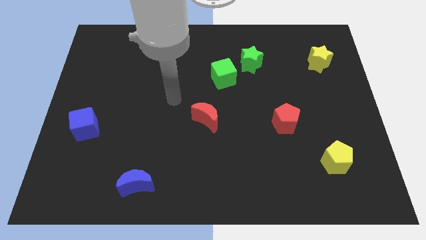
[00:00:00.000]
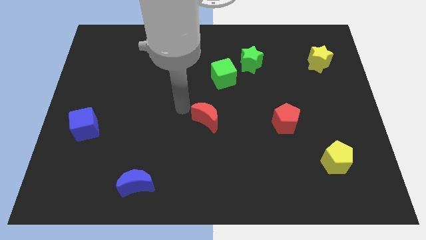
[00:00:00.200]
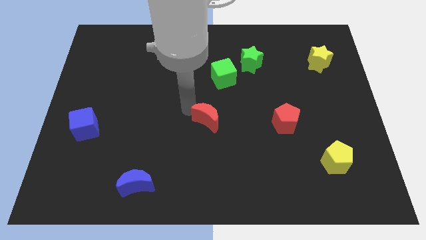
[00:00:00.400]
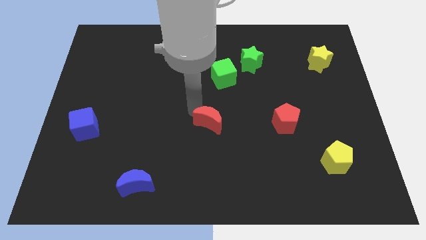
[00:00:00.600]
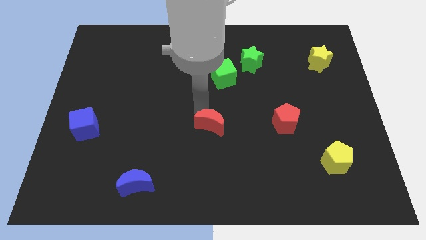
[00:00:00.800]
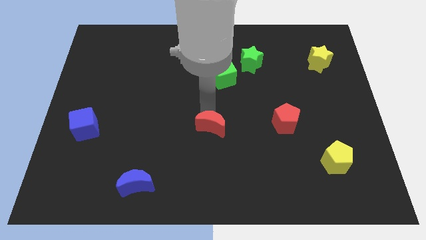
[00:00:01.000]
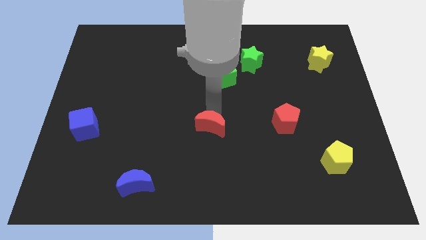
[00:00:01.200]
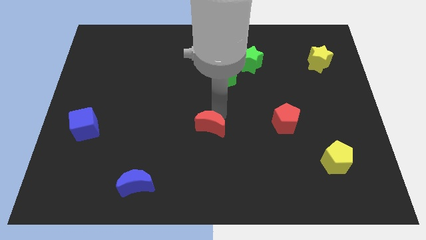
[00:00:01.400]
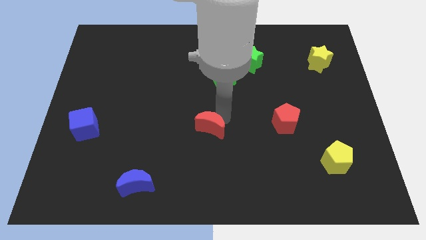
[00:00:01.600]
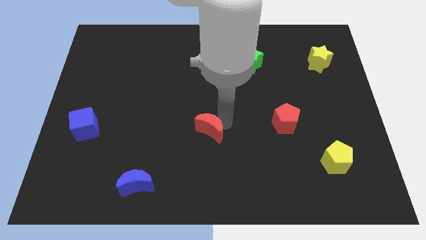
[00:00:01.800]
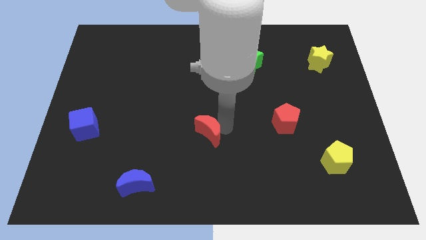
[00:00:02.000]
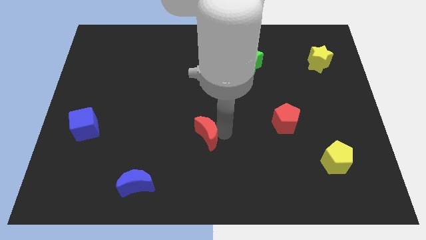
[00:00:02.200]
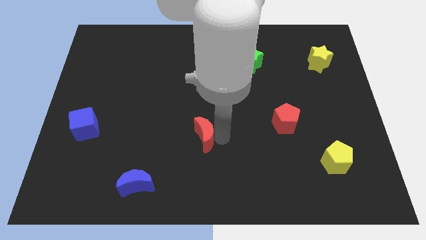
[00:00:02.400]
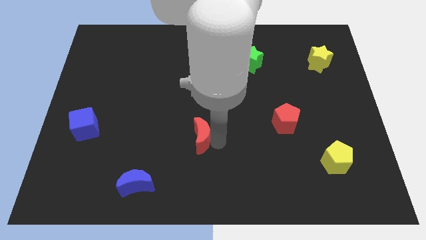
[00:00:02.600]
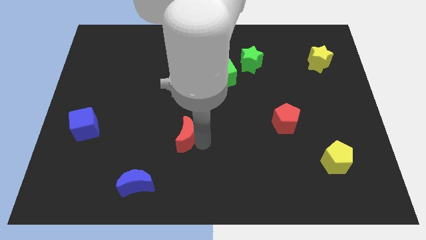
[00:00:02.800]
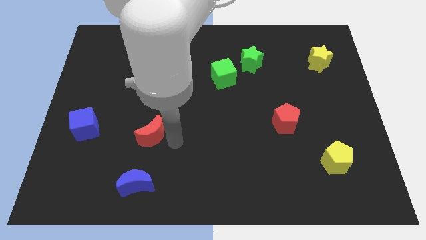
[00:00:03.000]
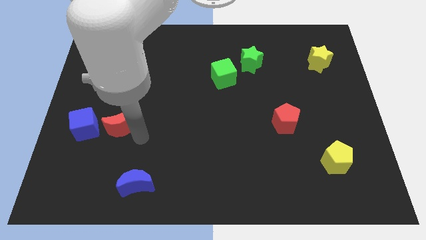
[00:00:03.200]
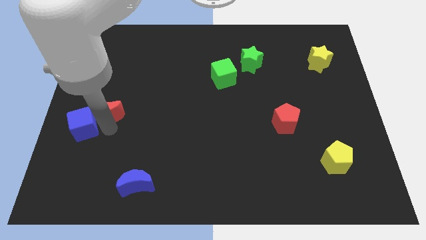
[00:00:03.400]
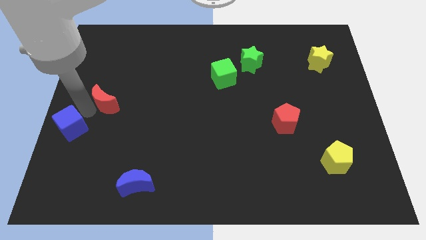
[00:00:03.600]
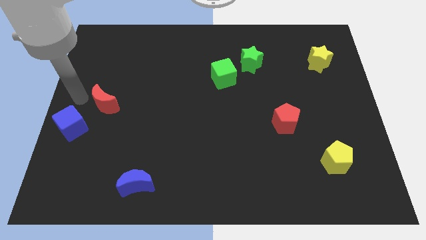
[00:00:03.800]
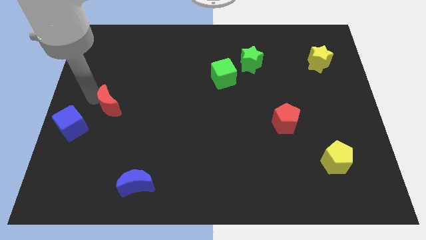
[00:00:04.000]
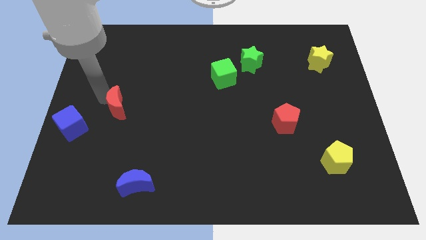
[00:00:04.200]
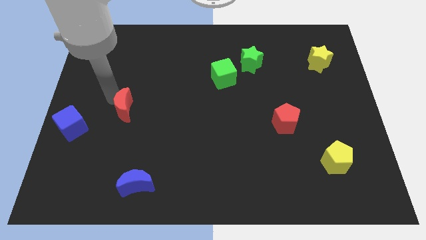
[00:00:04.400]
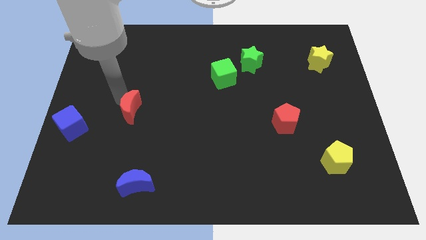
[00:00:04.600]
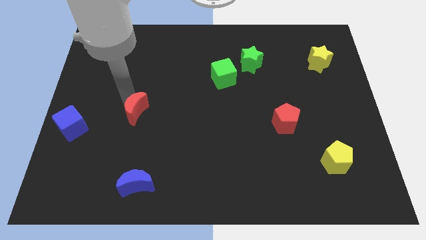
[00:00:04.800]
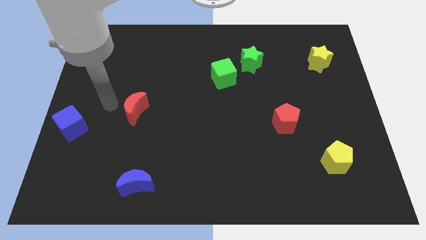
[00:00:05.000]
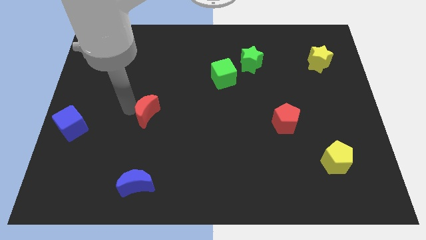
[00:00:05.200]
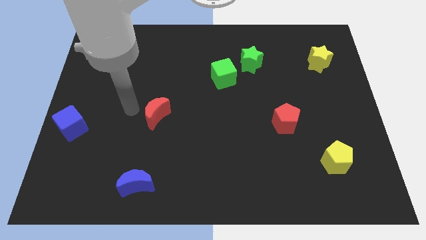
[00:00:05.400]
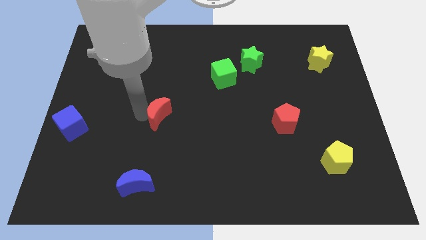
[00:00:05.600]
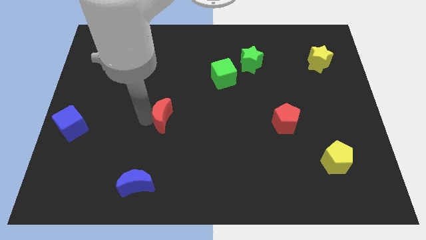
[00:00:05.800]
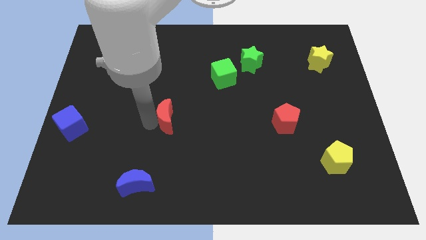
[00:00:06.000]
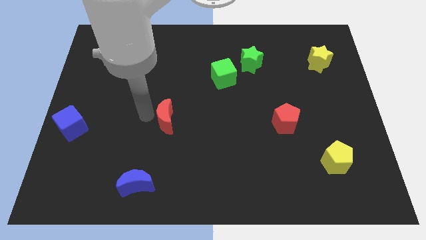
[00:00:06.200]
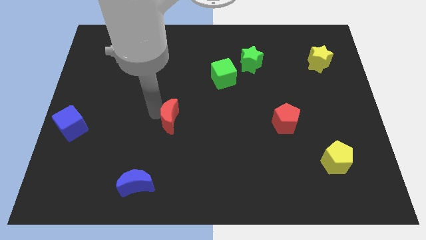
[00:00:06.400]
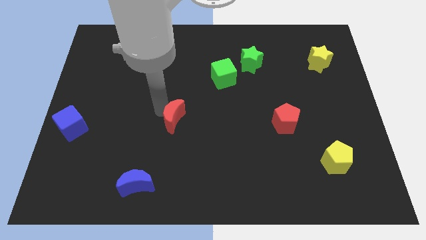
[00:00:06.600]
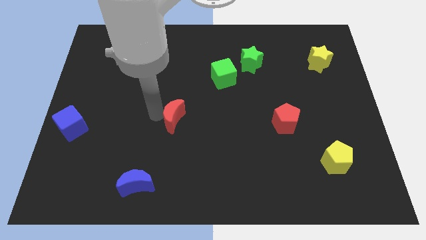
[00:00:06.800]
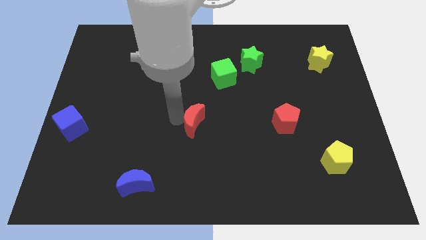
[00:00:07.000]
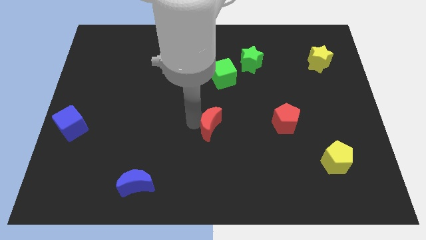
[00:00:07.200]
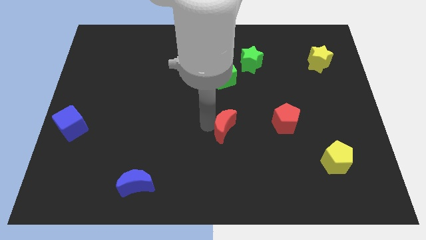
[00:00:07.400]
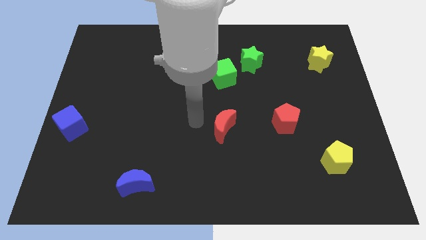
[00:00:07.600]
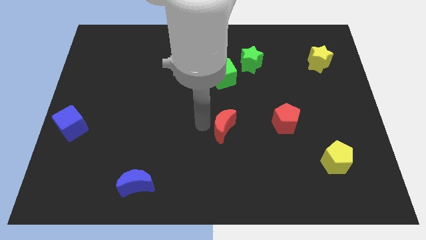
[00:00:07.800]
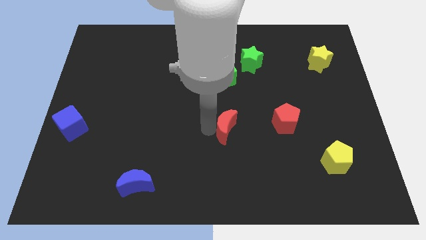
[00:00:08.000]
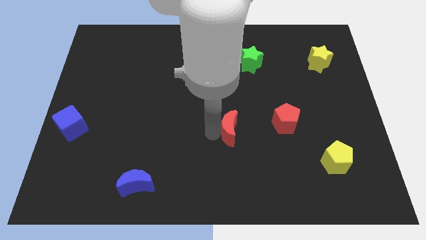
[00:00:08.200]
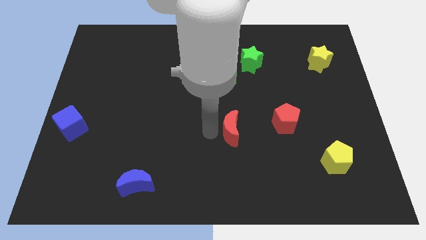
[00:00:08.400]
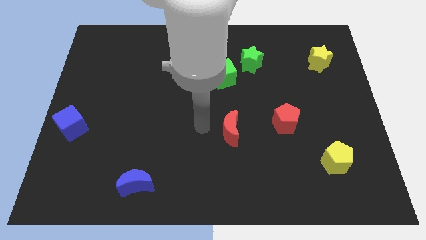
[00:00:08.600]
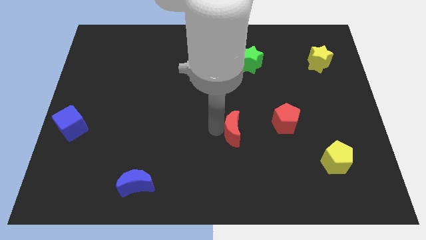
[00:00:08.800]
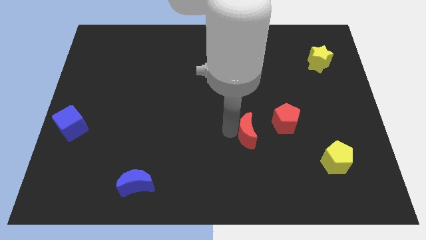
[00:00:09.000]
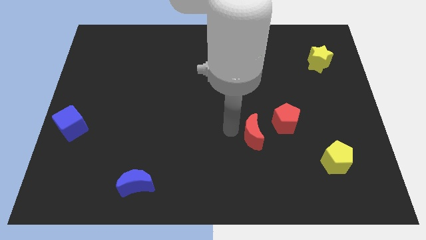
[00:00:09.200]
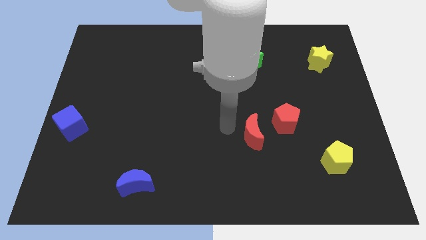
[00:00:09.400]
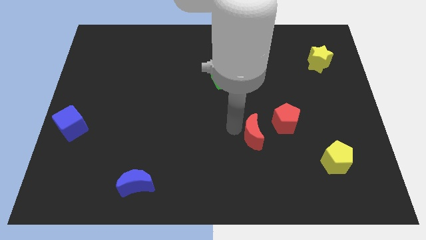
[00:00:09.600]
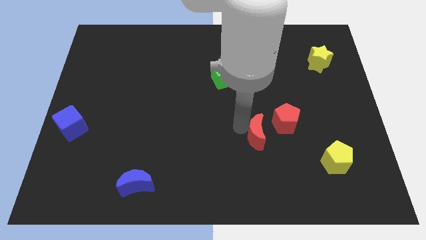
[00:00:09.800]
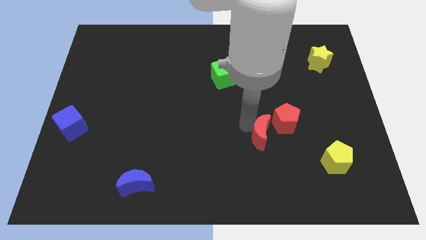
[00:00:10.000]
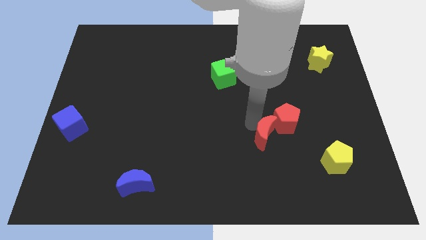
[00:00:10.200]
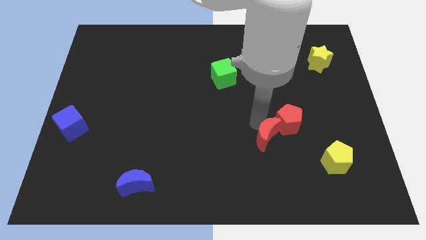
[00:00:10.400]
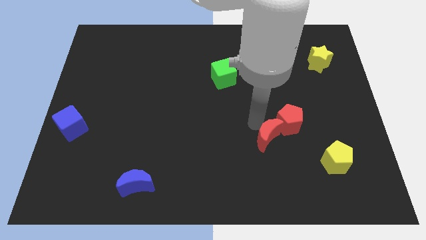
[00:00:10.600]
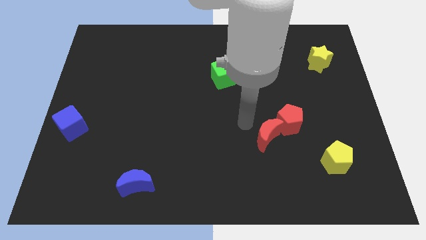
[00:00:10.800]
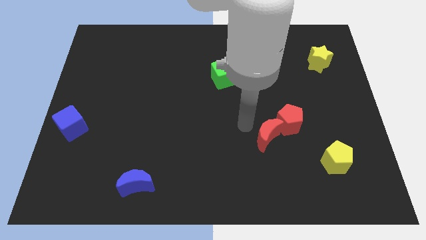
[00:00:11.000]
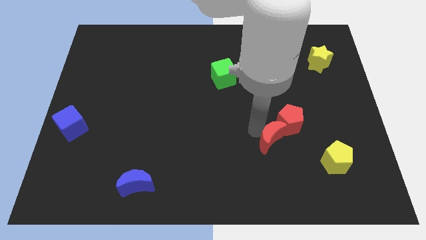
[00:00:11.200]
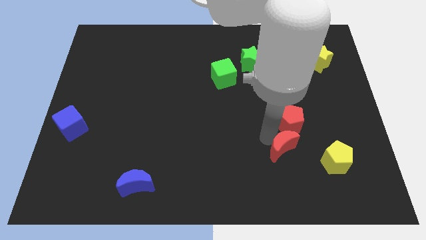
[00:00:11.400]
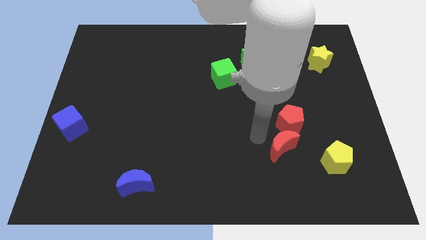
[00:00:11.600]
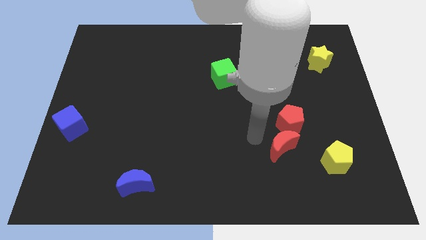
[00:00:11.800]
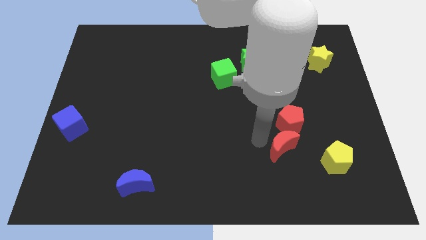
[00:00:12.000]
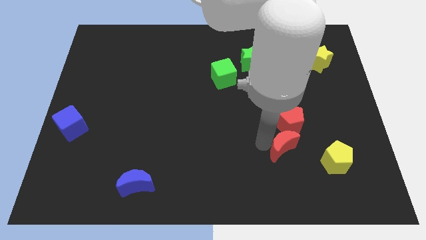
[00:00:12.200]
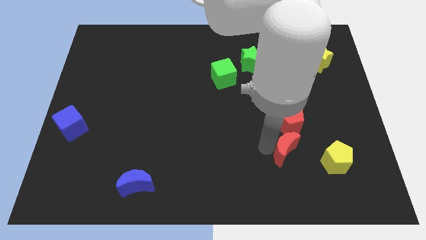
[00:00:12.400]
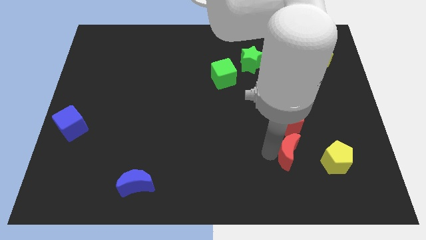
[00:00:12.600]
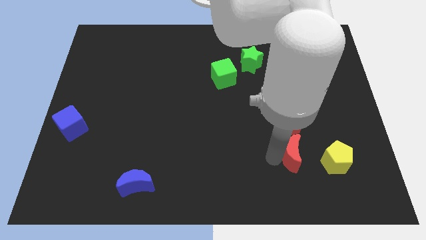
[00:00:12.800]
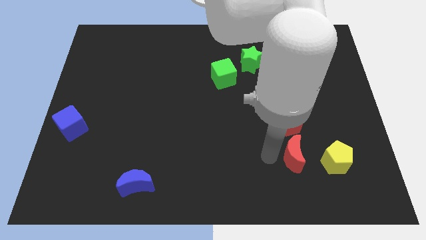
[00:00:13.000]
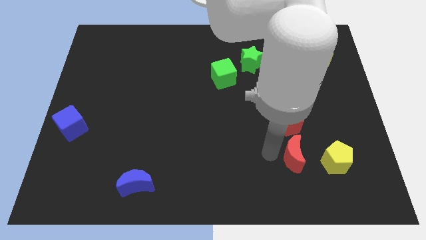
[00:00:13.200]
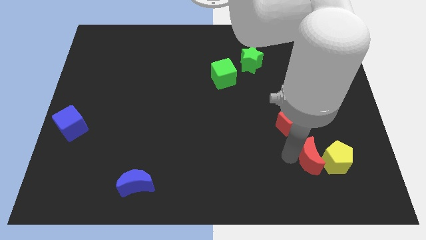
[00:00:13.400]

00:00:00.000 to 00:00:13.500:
slide the red moon next to the yellow pentagon
